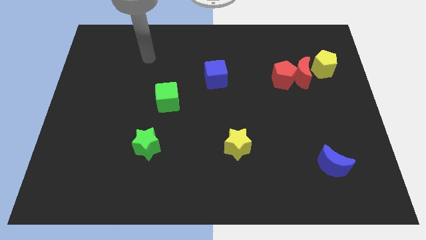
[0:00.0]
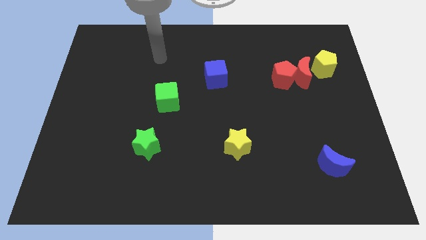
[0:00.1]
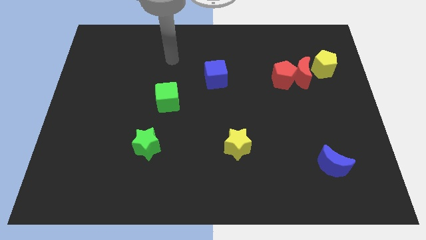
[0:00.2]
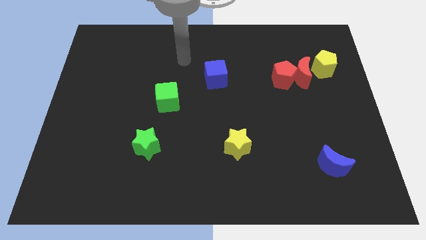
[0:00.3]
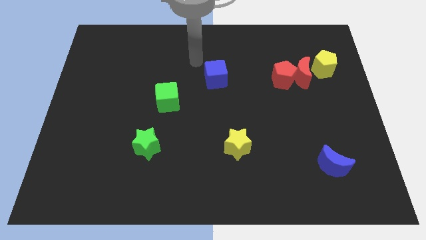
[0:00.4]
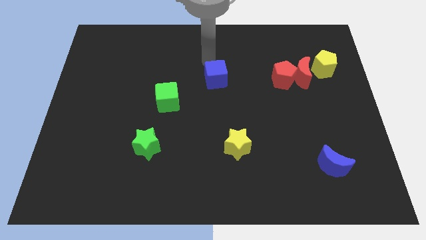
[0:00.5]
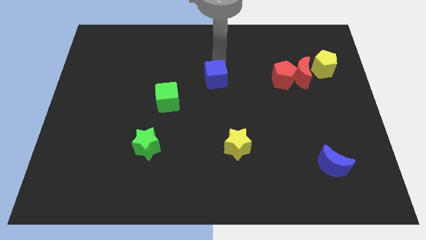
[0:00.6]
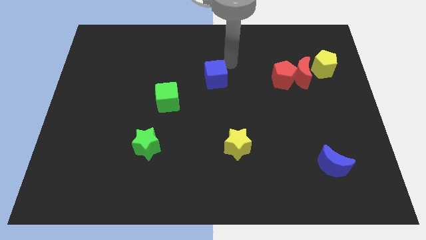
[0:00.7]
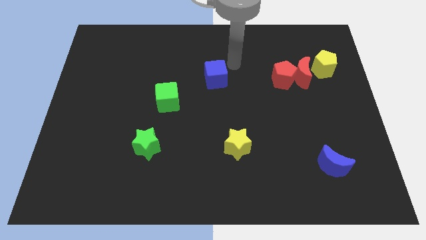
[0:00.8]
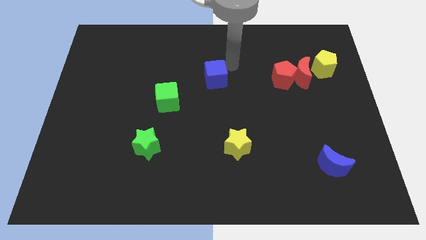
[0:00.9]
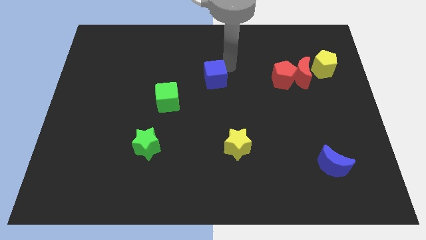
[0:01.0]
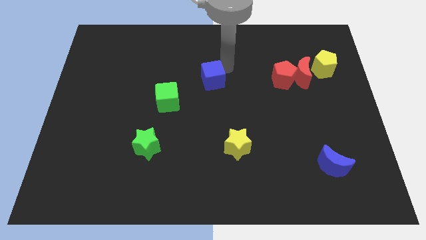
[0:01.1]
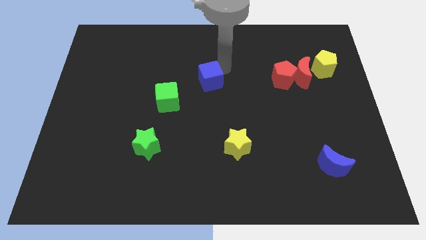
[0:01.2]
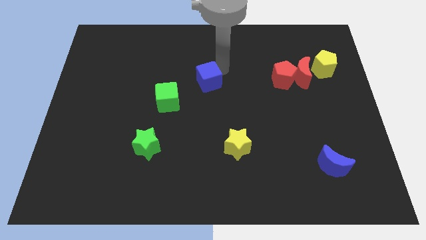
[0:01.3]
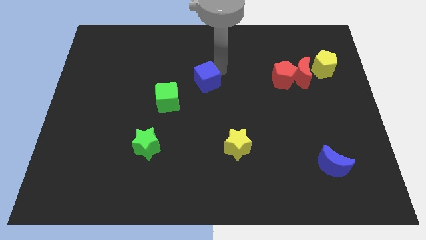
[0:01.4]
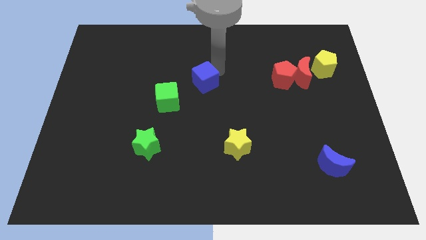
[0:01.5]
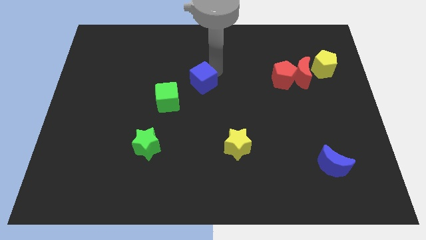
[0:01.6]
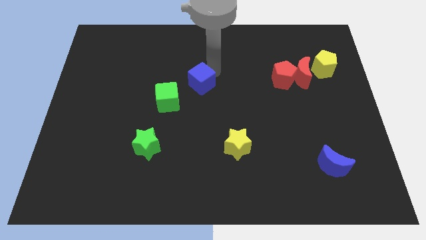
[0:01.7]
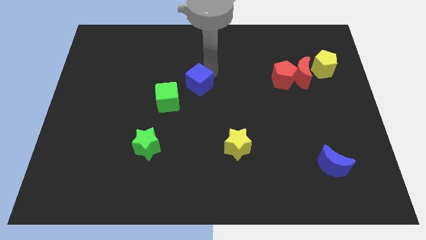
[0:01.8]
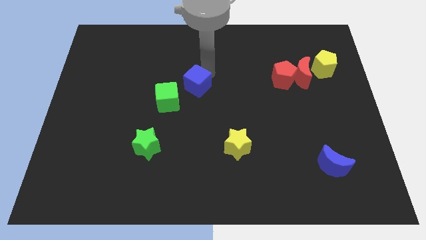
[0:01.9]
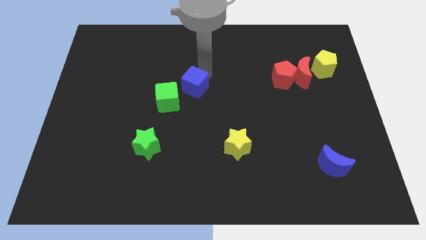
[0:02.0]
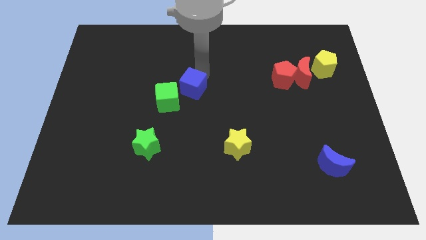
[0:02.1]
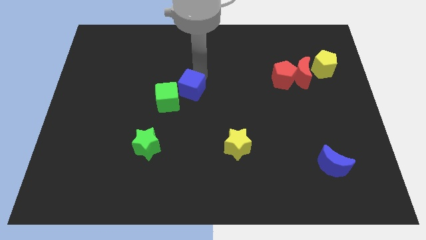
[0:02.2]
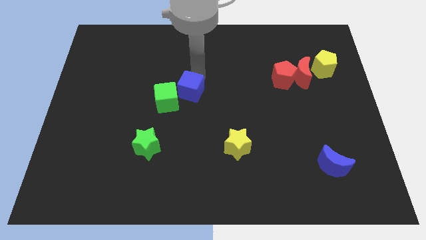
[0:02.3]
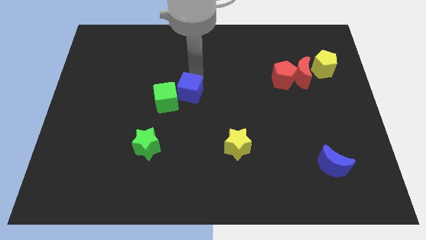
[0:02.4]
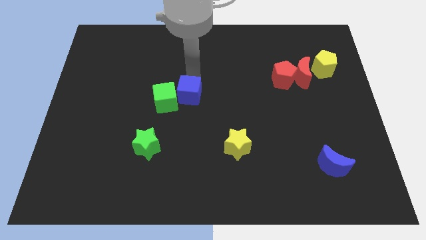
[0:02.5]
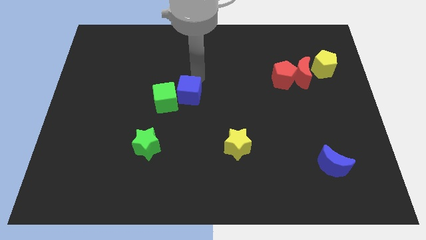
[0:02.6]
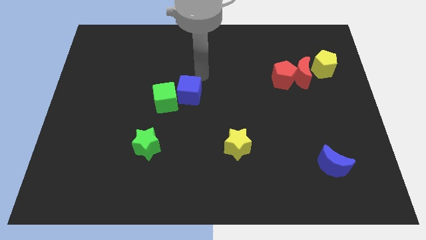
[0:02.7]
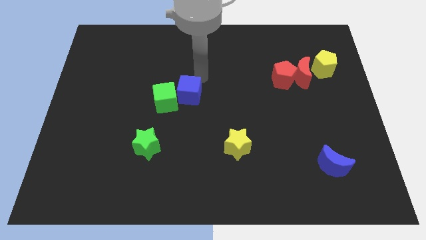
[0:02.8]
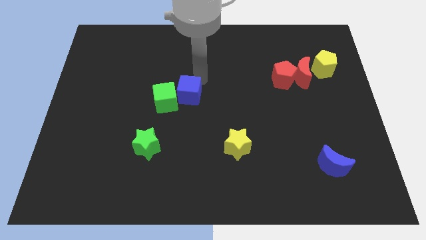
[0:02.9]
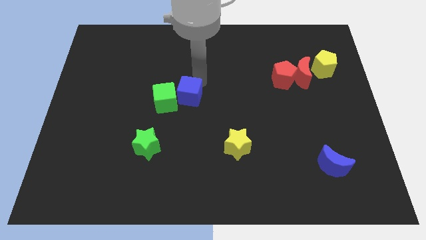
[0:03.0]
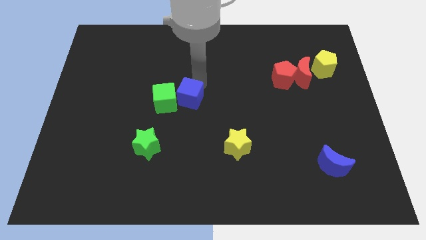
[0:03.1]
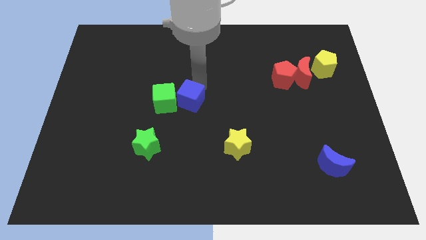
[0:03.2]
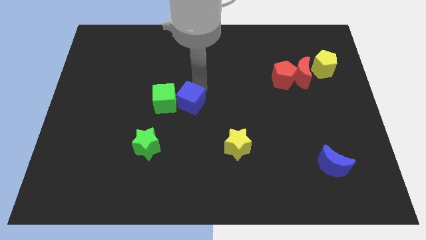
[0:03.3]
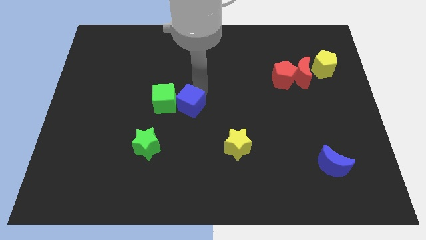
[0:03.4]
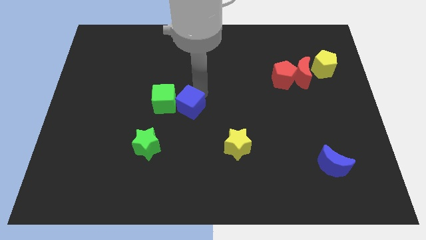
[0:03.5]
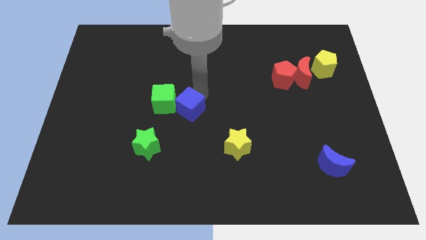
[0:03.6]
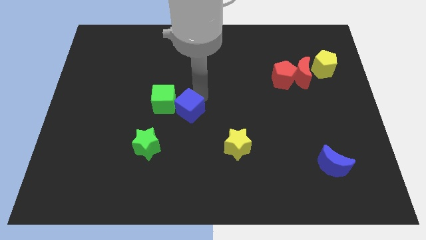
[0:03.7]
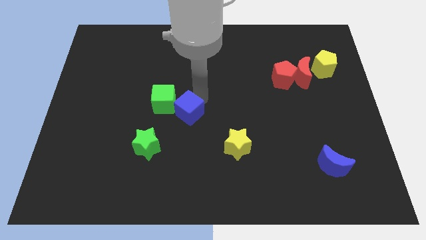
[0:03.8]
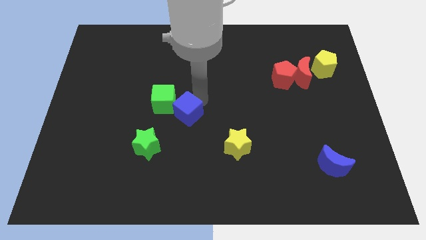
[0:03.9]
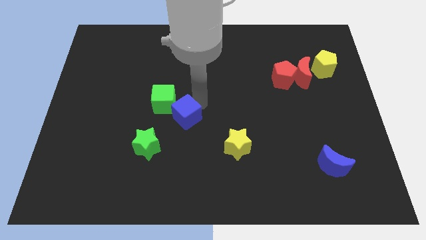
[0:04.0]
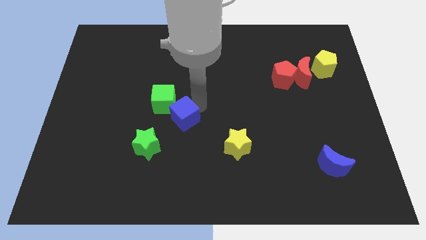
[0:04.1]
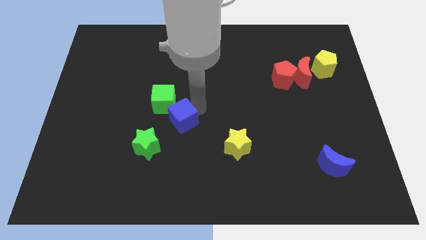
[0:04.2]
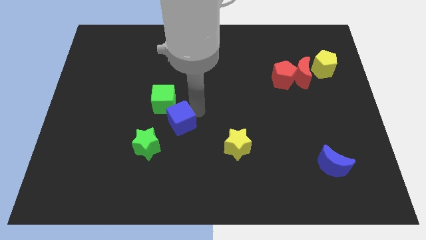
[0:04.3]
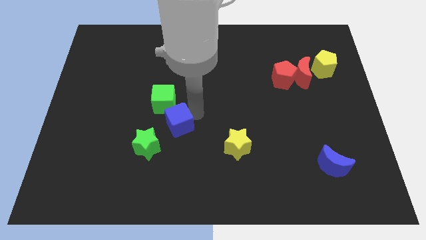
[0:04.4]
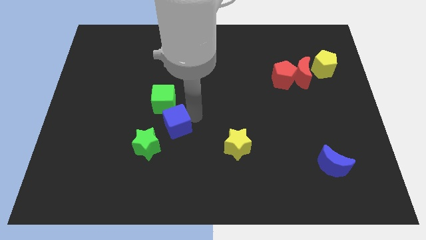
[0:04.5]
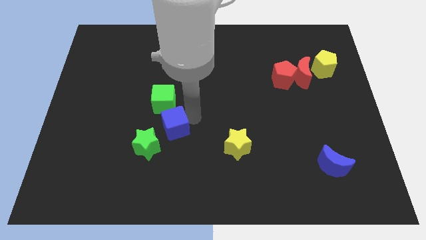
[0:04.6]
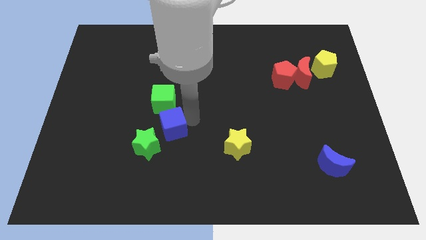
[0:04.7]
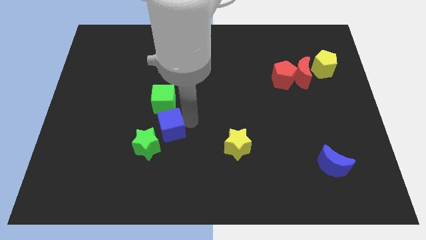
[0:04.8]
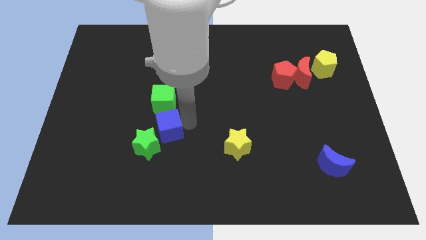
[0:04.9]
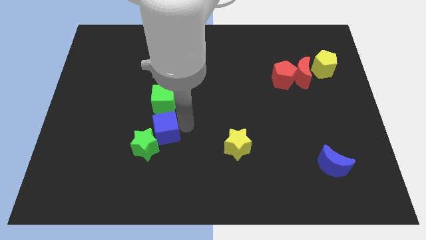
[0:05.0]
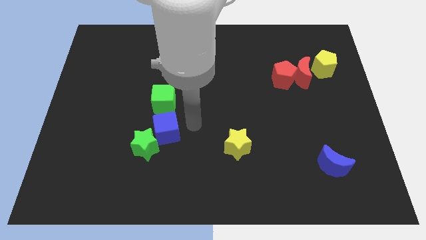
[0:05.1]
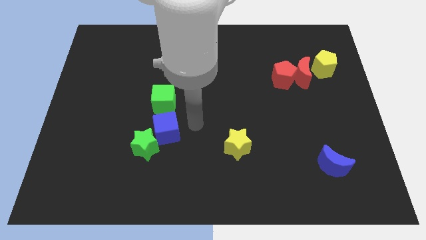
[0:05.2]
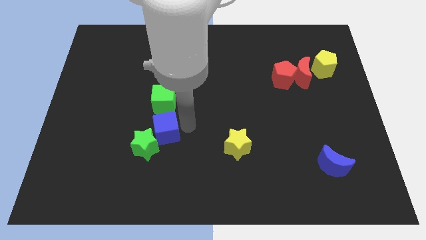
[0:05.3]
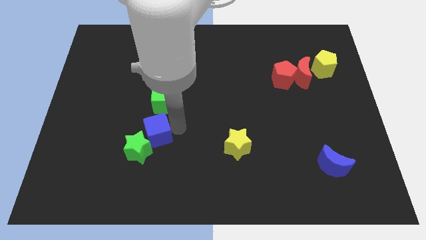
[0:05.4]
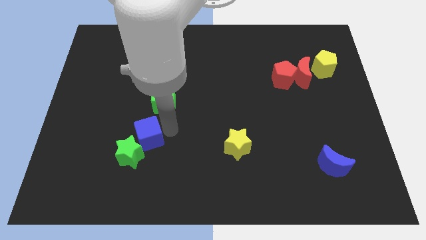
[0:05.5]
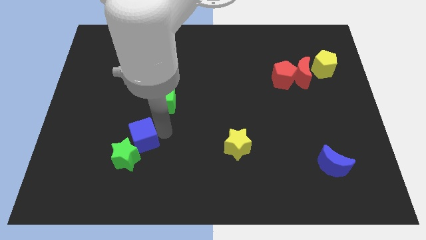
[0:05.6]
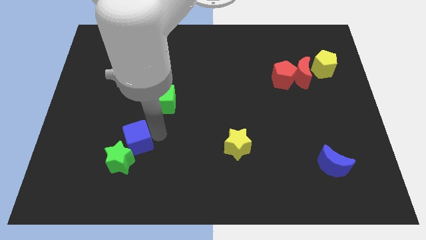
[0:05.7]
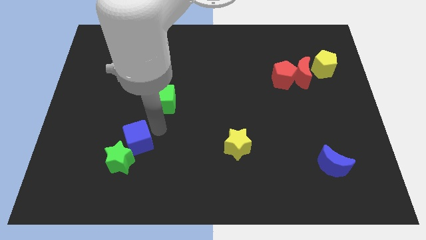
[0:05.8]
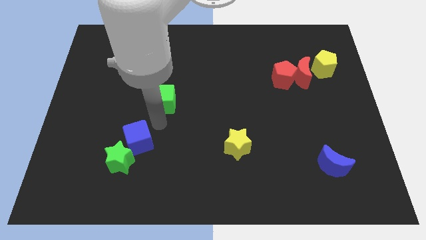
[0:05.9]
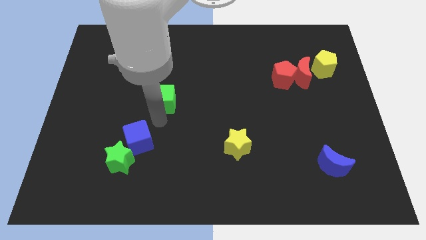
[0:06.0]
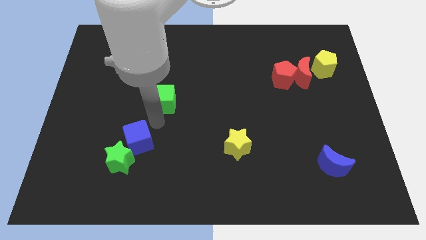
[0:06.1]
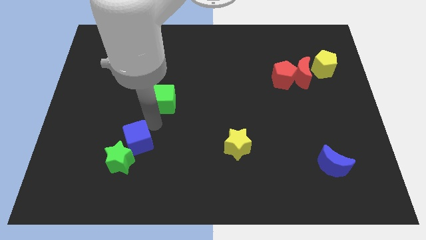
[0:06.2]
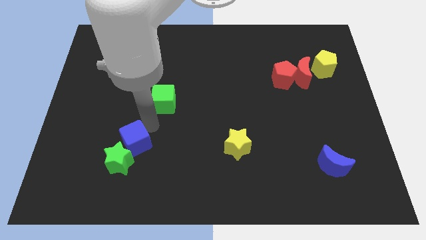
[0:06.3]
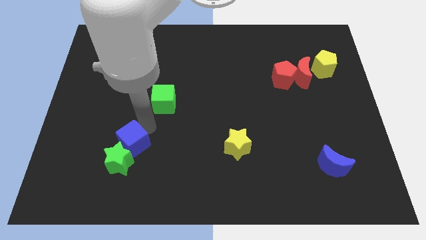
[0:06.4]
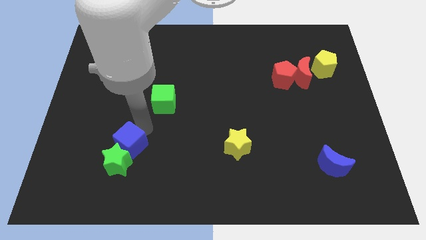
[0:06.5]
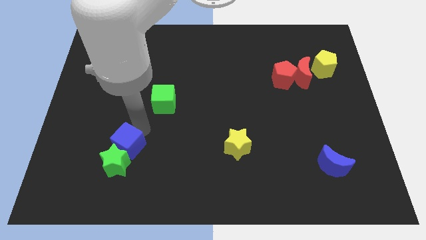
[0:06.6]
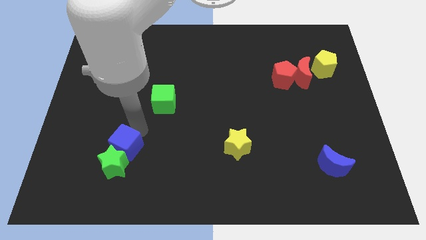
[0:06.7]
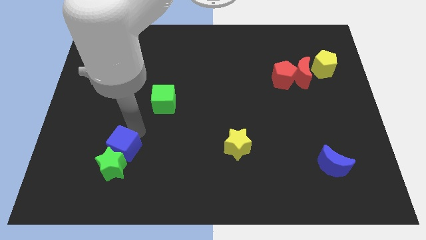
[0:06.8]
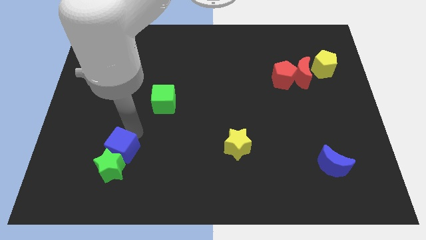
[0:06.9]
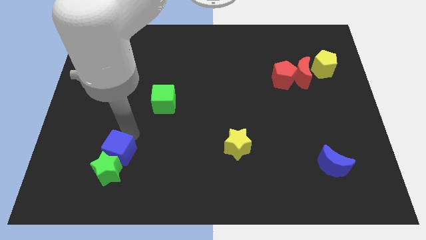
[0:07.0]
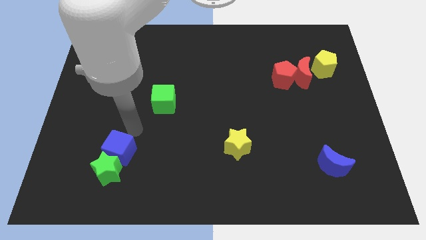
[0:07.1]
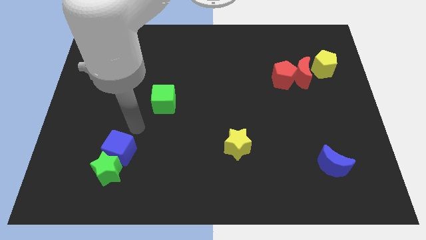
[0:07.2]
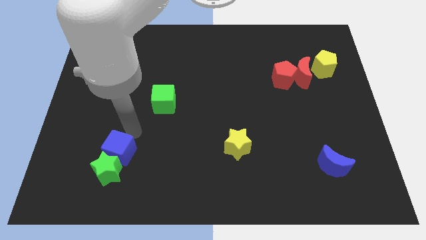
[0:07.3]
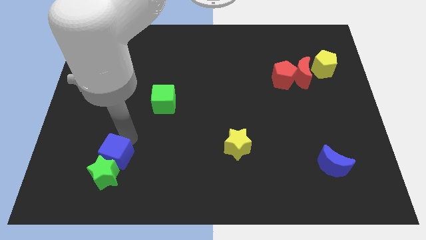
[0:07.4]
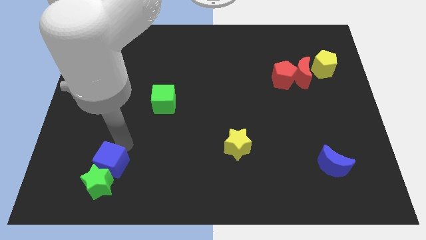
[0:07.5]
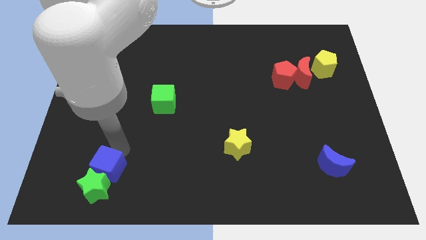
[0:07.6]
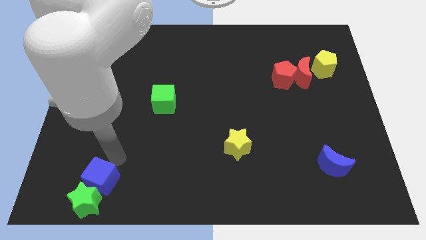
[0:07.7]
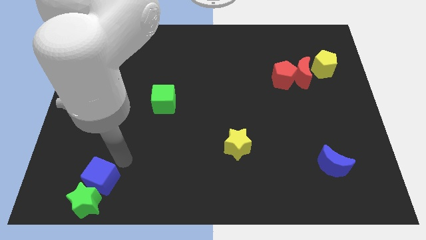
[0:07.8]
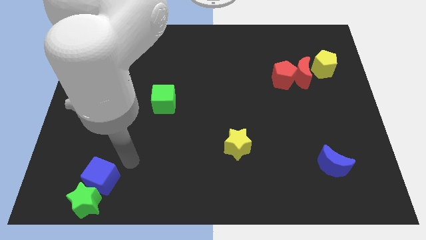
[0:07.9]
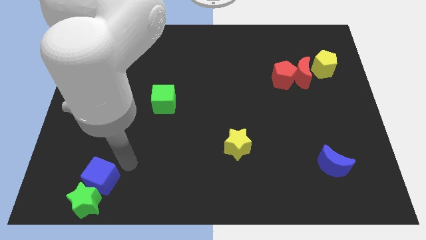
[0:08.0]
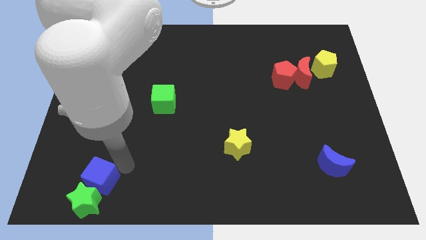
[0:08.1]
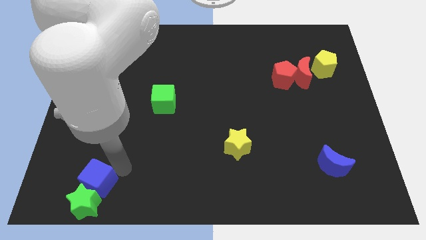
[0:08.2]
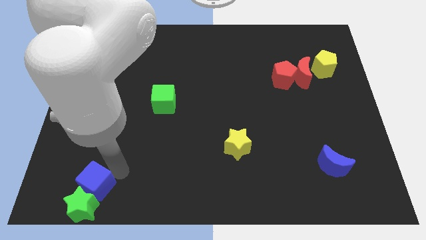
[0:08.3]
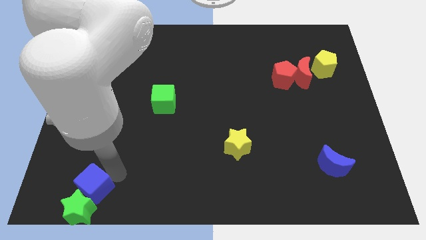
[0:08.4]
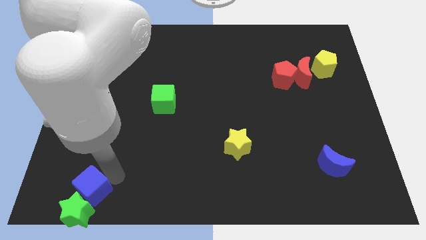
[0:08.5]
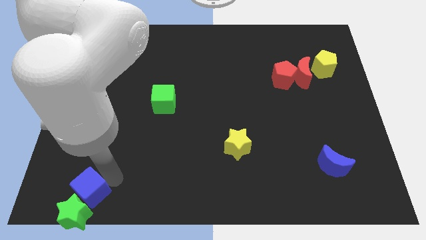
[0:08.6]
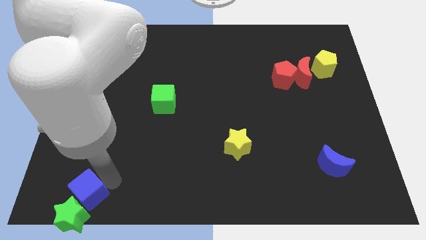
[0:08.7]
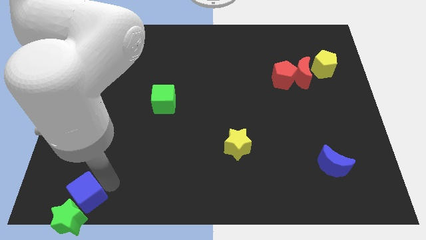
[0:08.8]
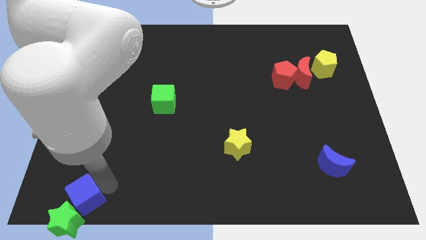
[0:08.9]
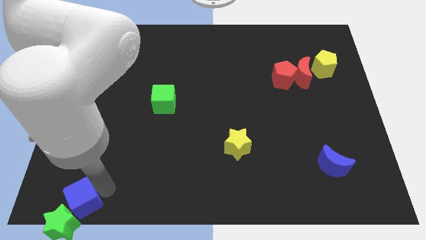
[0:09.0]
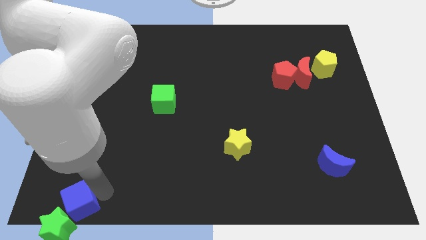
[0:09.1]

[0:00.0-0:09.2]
move the blue cube to the bottom left corner
